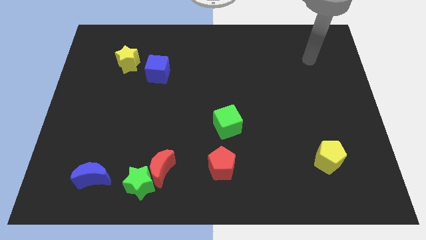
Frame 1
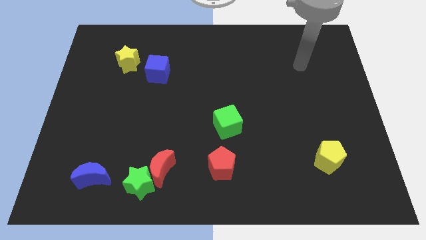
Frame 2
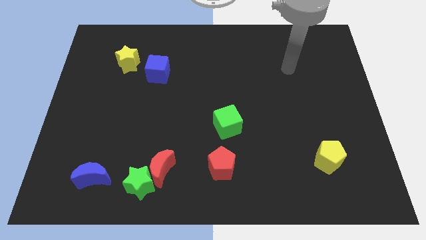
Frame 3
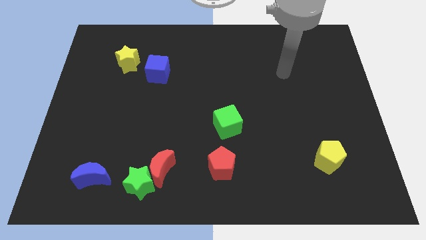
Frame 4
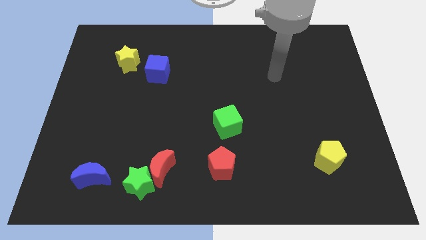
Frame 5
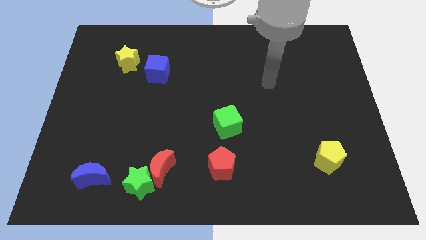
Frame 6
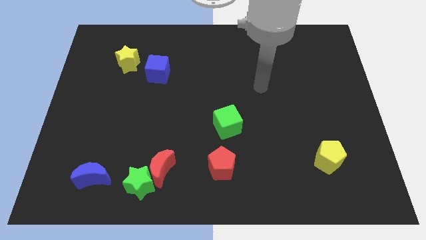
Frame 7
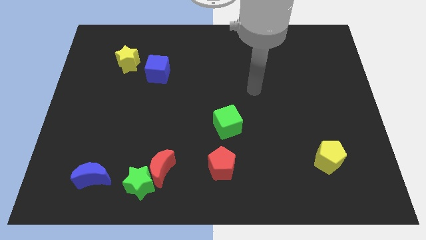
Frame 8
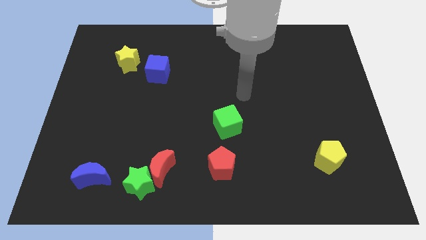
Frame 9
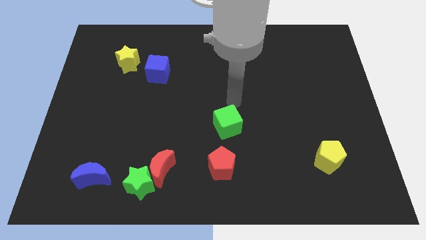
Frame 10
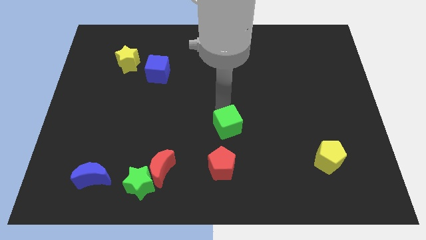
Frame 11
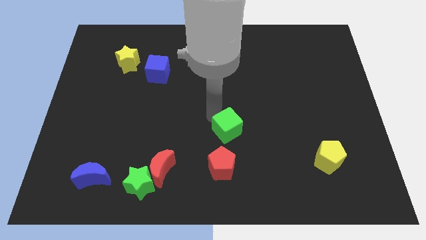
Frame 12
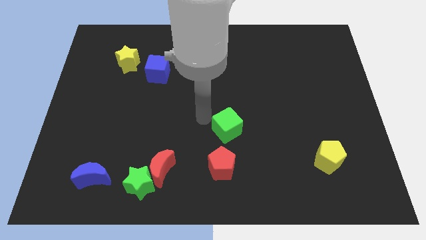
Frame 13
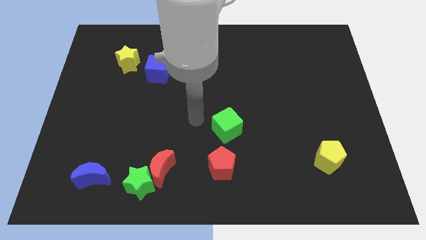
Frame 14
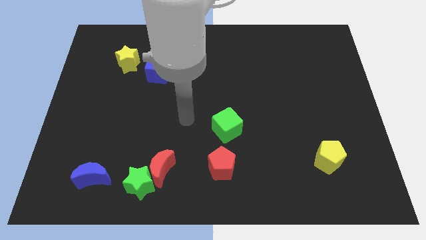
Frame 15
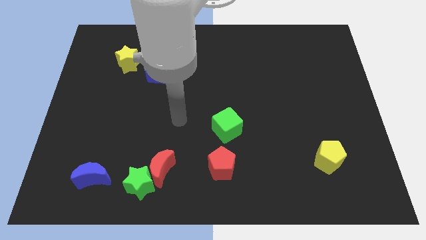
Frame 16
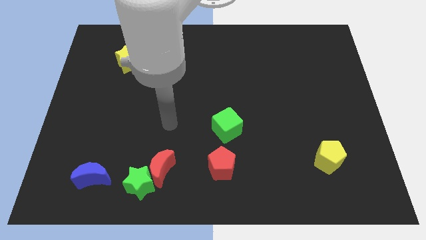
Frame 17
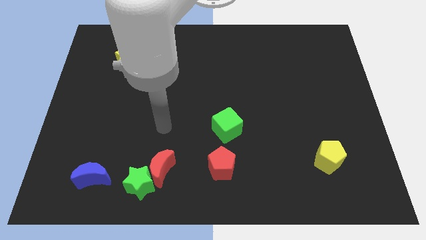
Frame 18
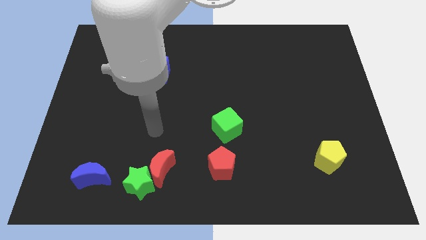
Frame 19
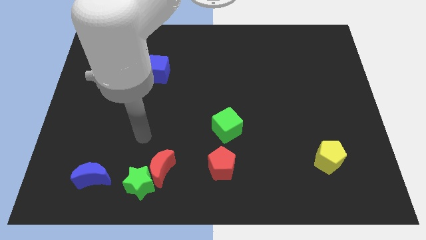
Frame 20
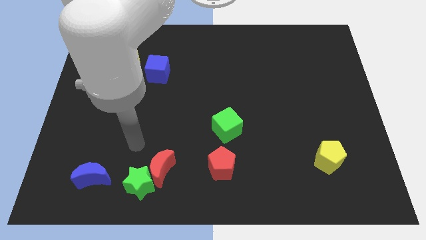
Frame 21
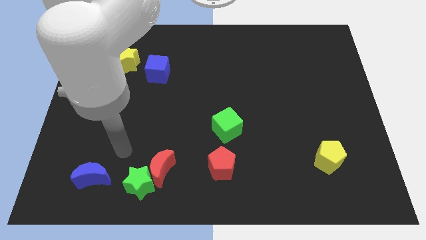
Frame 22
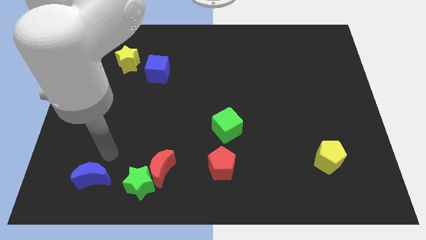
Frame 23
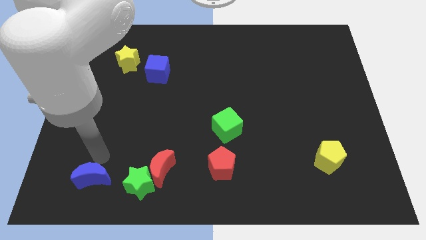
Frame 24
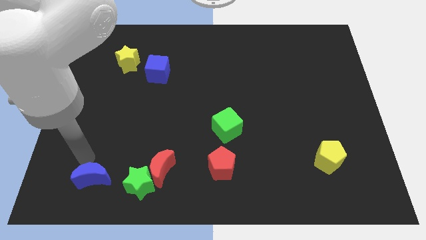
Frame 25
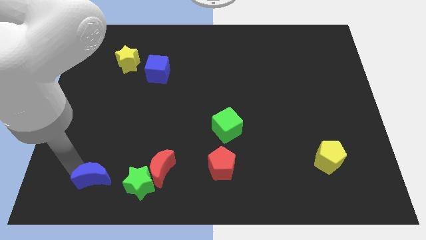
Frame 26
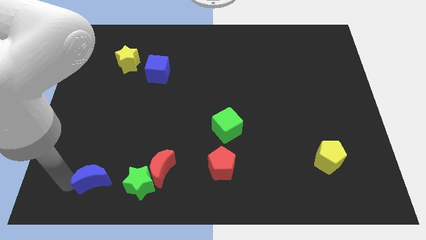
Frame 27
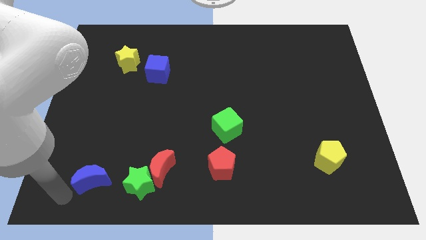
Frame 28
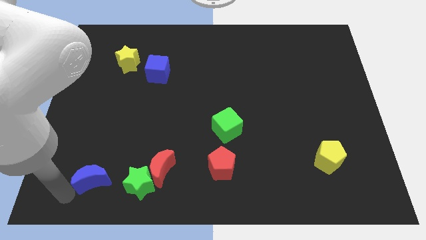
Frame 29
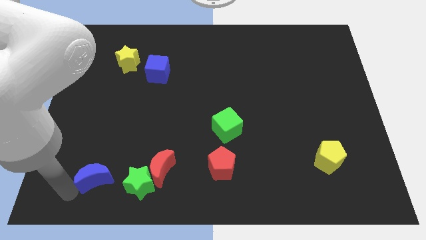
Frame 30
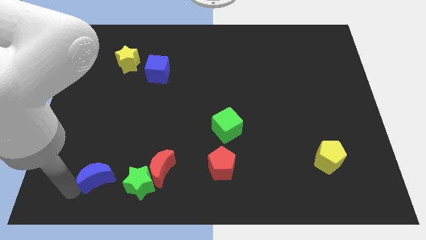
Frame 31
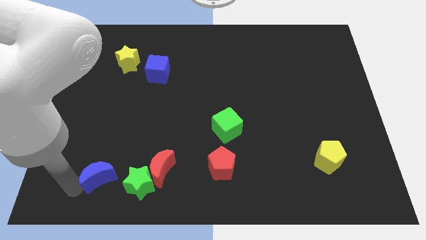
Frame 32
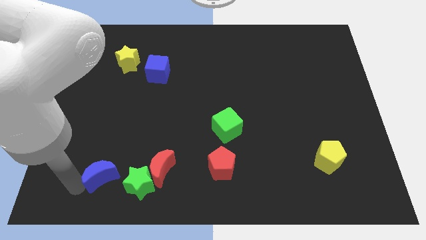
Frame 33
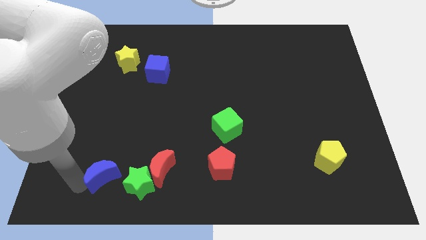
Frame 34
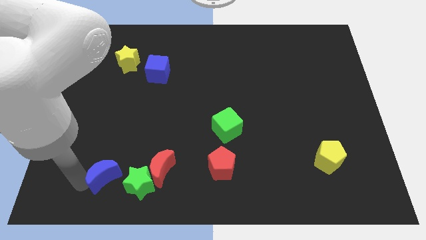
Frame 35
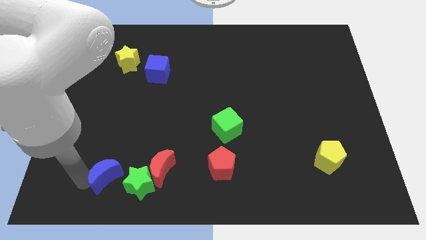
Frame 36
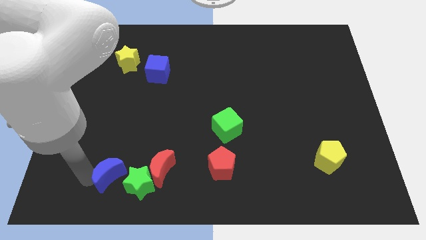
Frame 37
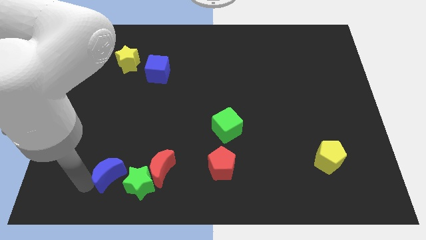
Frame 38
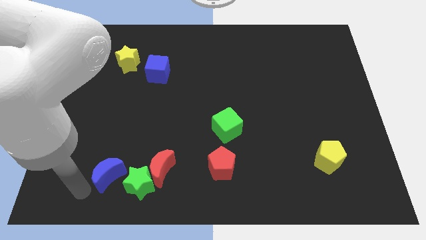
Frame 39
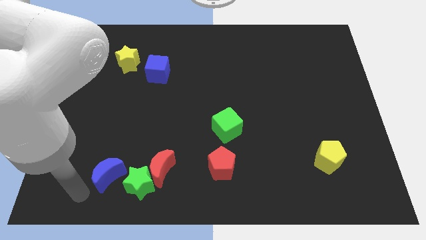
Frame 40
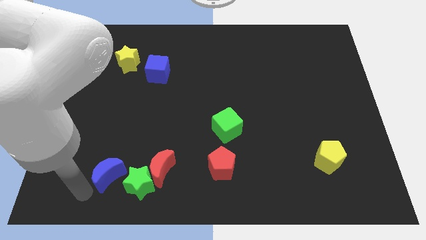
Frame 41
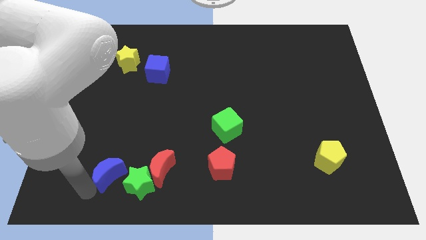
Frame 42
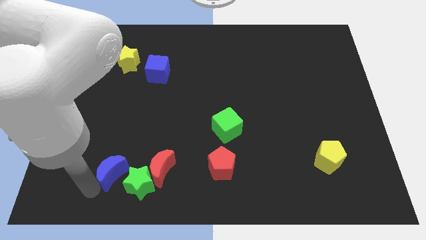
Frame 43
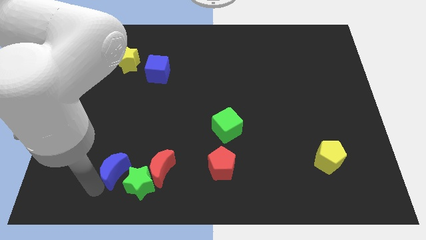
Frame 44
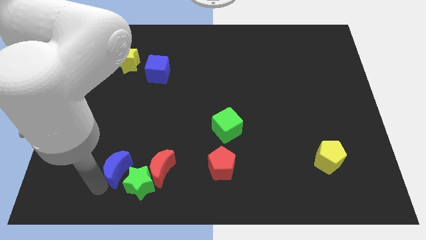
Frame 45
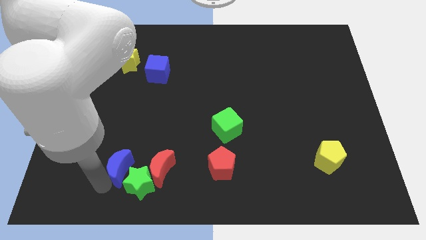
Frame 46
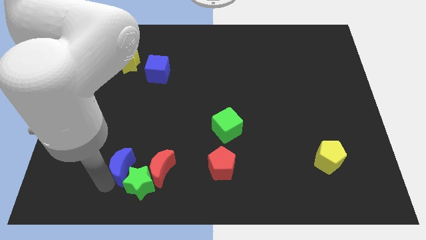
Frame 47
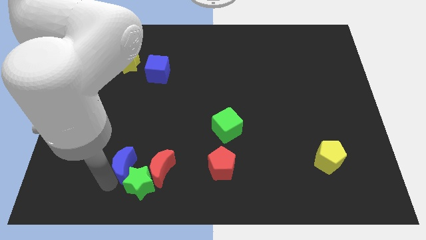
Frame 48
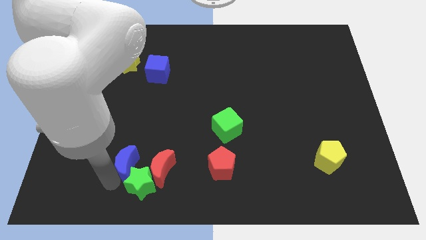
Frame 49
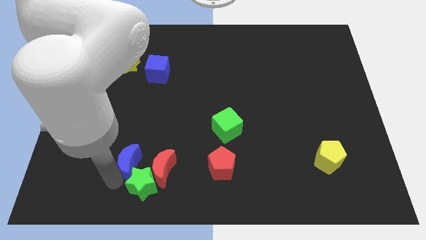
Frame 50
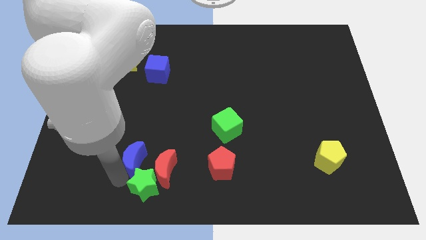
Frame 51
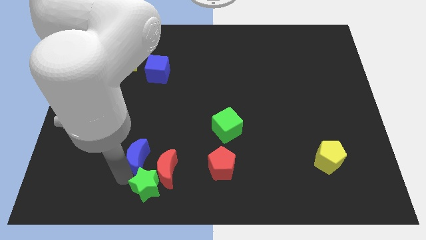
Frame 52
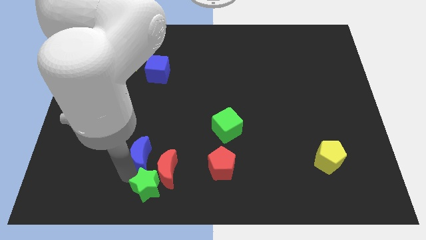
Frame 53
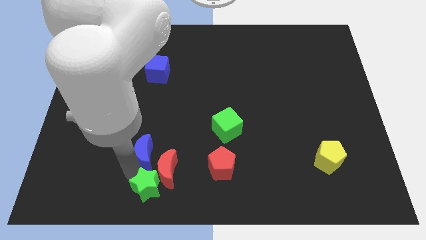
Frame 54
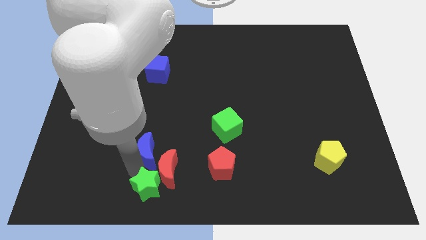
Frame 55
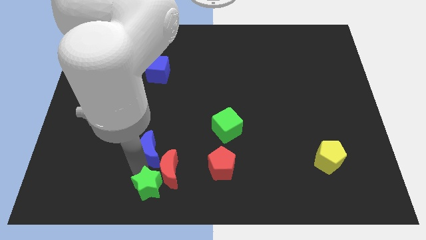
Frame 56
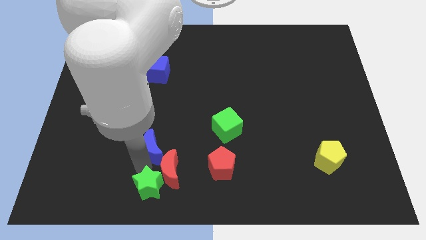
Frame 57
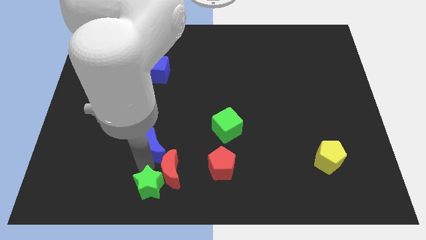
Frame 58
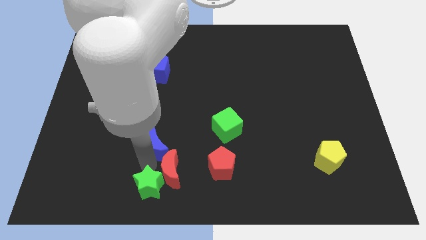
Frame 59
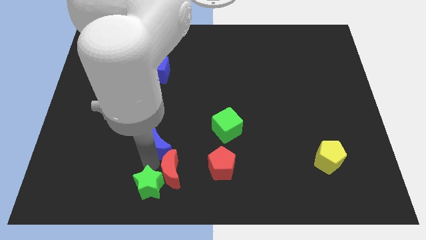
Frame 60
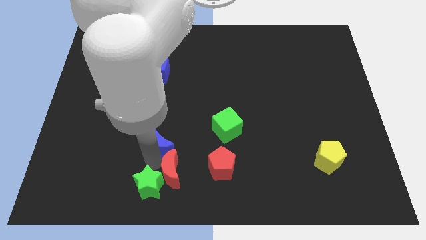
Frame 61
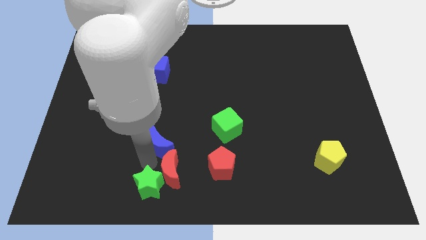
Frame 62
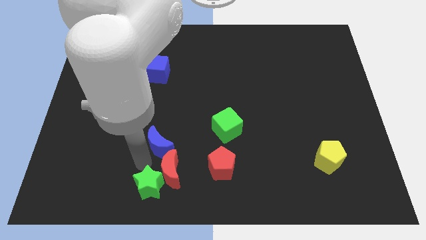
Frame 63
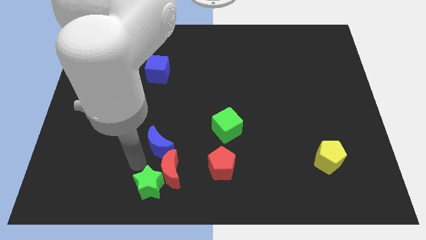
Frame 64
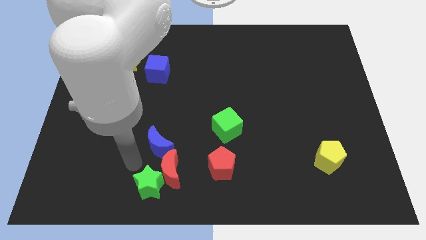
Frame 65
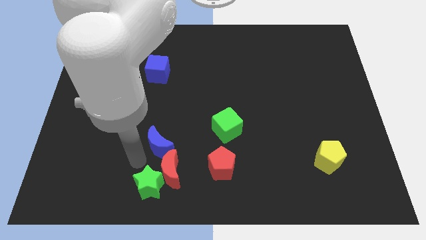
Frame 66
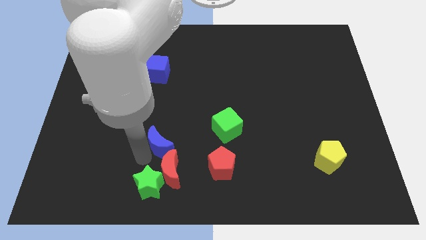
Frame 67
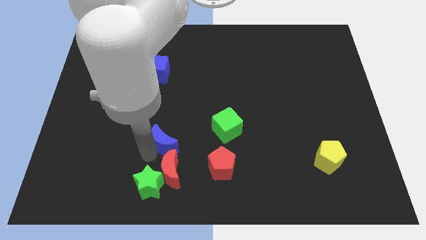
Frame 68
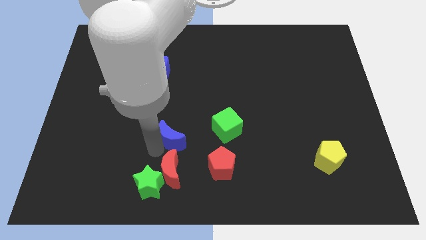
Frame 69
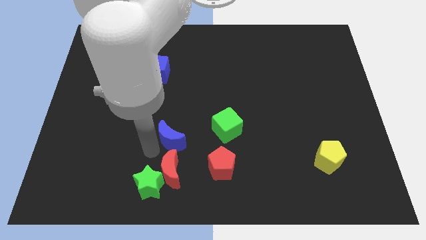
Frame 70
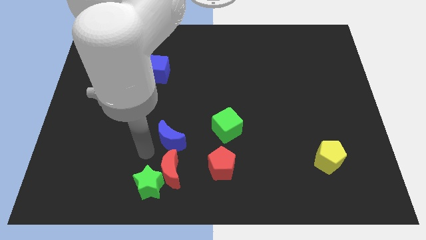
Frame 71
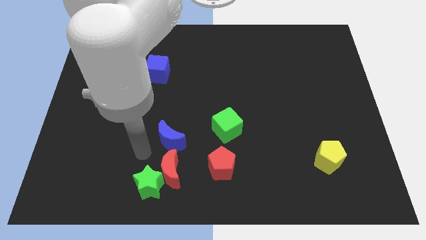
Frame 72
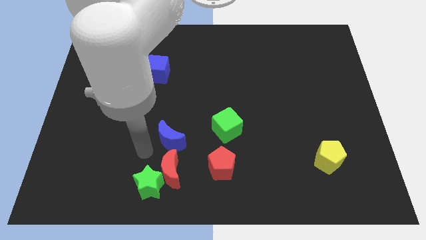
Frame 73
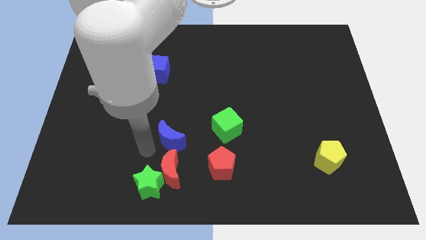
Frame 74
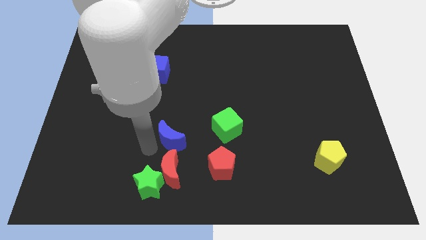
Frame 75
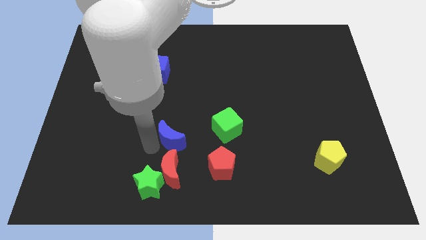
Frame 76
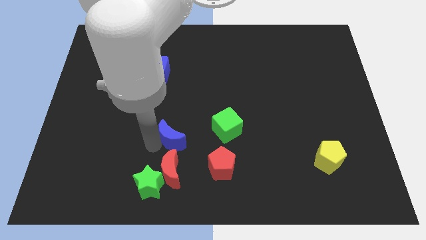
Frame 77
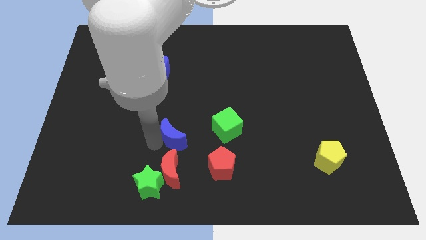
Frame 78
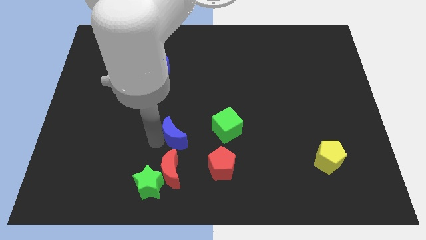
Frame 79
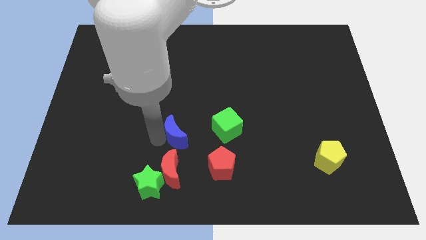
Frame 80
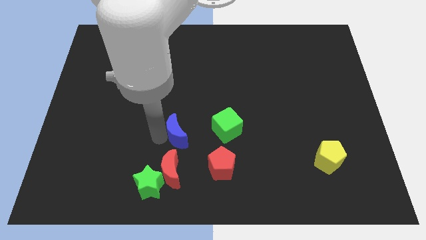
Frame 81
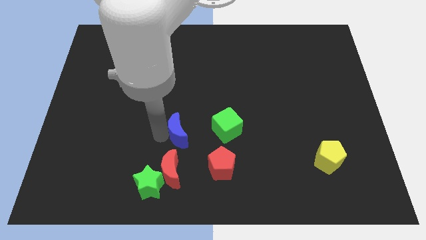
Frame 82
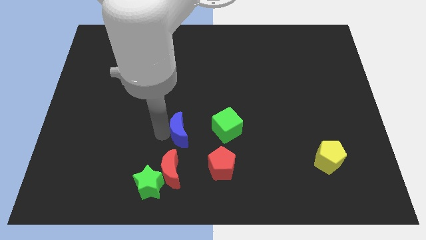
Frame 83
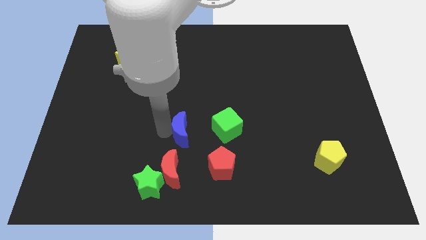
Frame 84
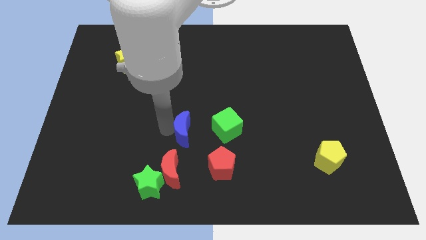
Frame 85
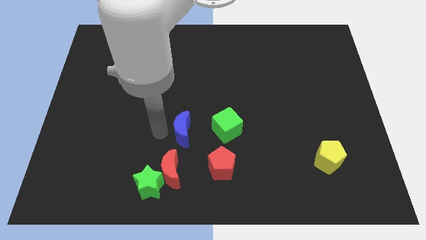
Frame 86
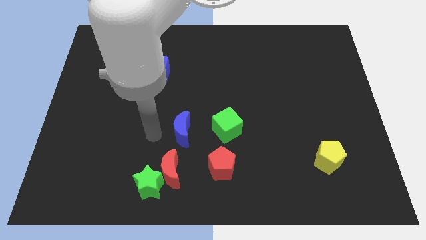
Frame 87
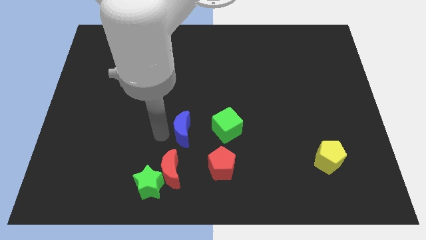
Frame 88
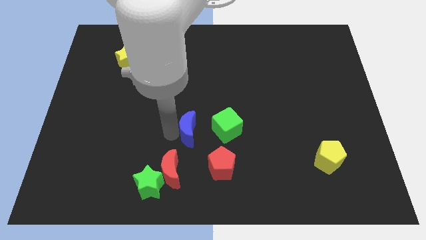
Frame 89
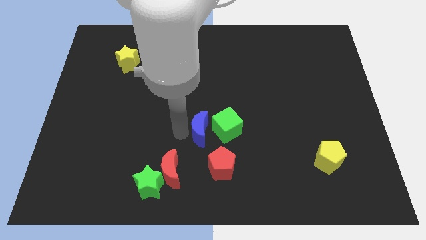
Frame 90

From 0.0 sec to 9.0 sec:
move the blue moon next to the green cube
